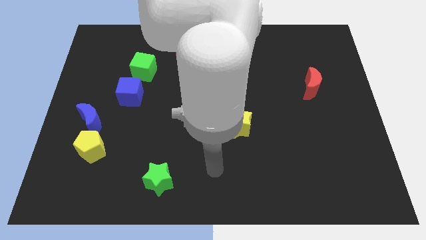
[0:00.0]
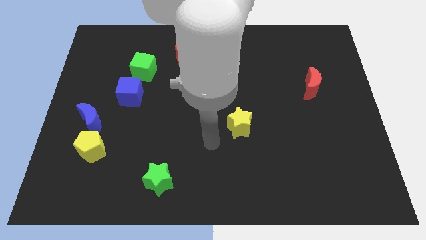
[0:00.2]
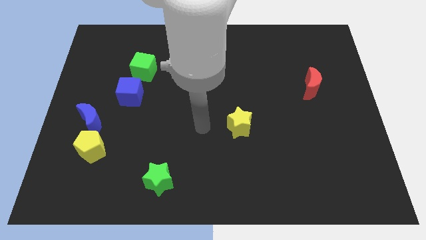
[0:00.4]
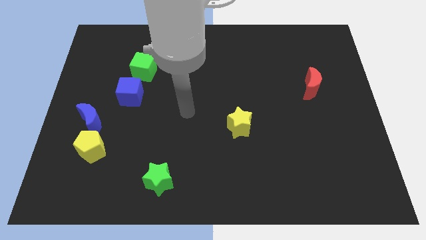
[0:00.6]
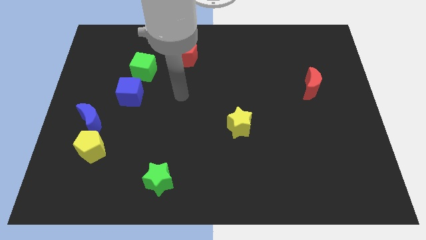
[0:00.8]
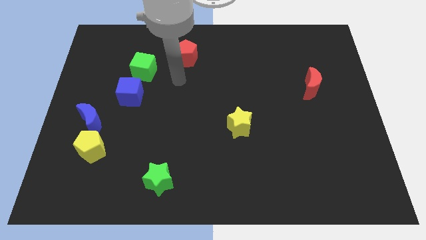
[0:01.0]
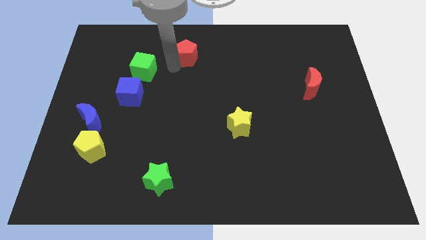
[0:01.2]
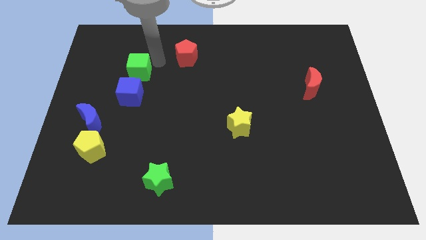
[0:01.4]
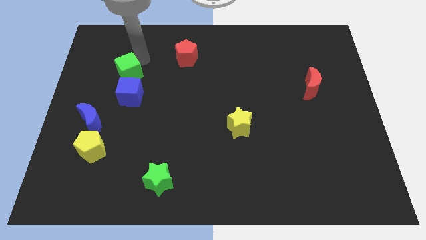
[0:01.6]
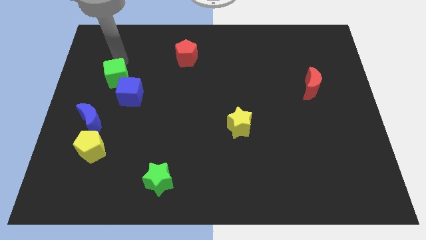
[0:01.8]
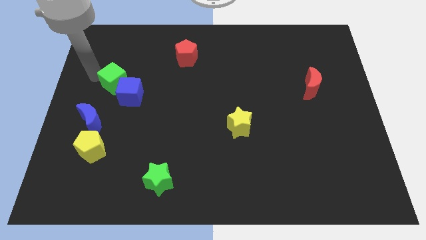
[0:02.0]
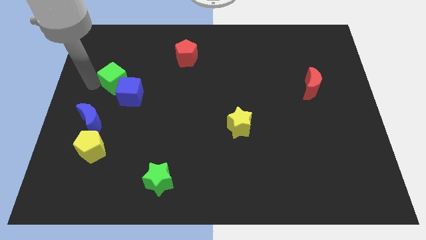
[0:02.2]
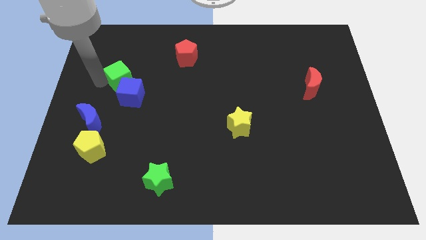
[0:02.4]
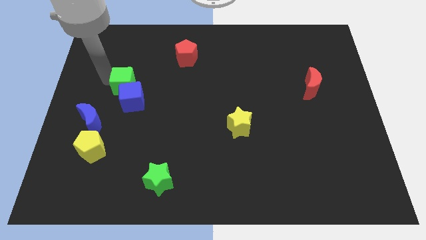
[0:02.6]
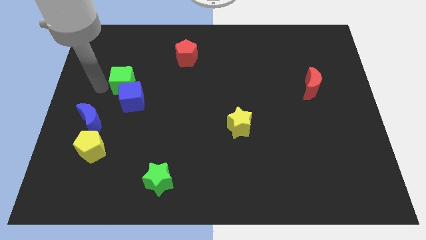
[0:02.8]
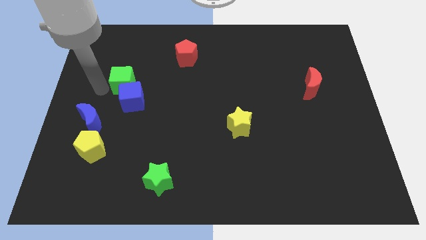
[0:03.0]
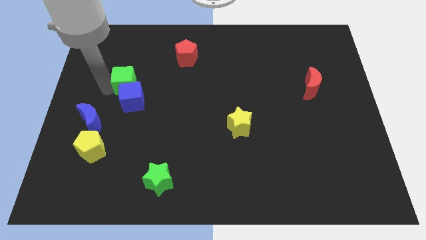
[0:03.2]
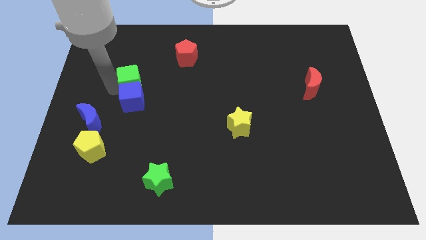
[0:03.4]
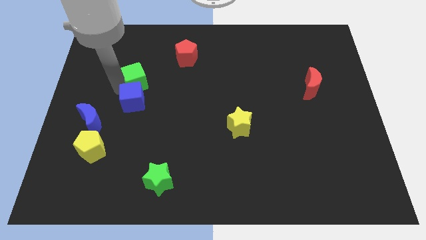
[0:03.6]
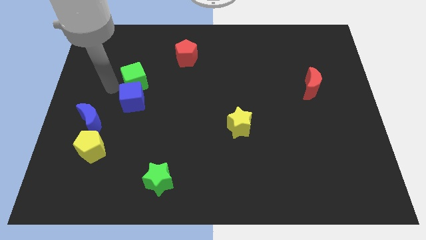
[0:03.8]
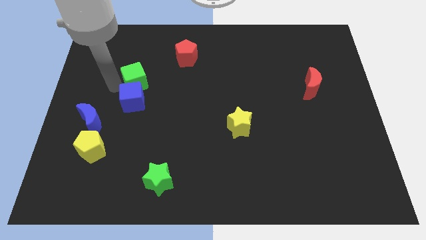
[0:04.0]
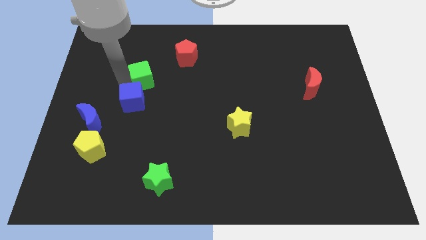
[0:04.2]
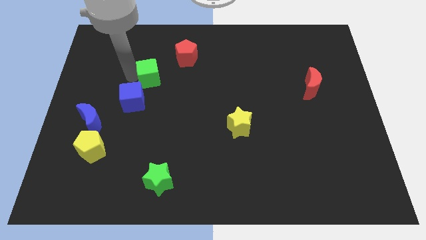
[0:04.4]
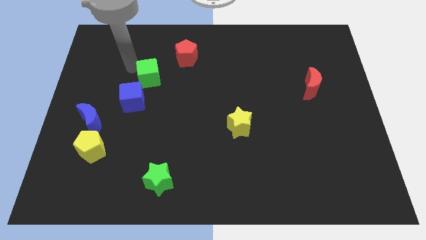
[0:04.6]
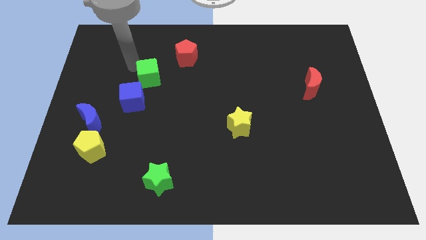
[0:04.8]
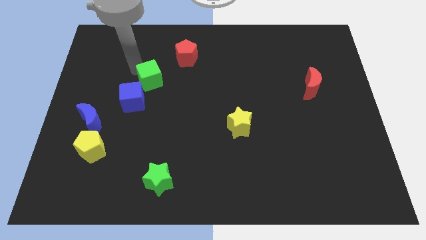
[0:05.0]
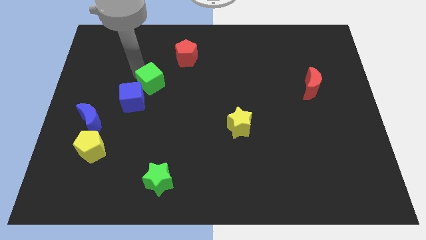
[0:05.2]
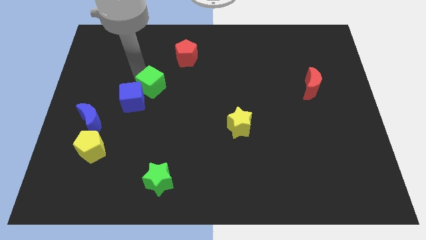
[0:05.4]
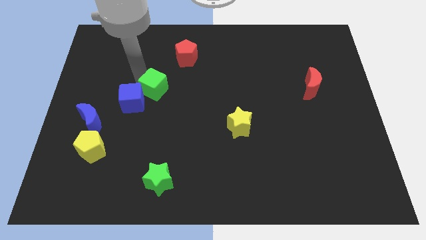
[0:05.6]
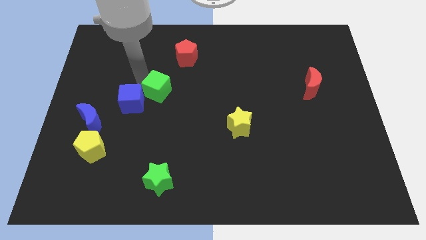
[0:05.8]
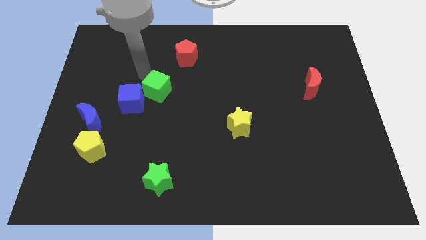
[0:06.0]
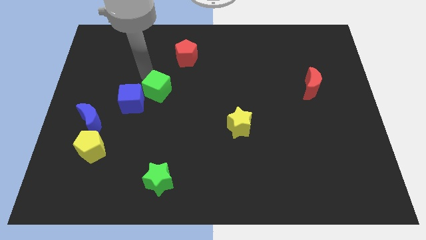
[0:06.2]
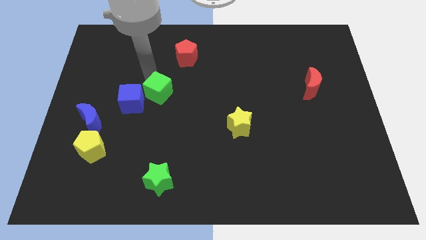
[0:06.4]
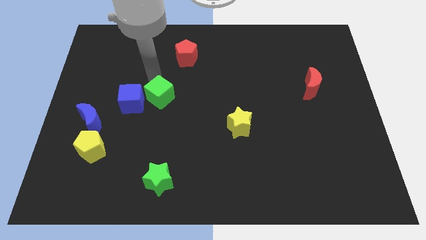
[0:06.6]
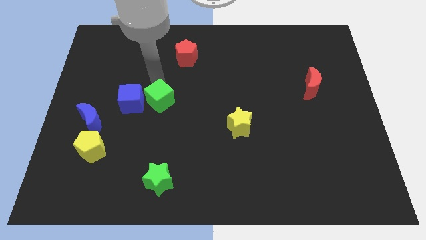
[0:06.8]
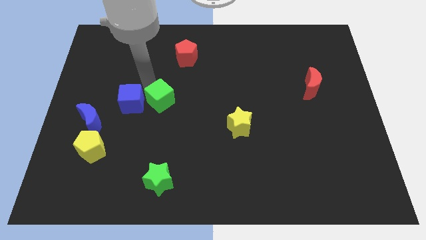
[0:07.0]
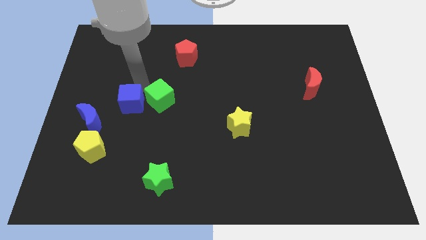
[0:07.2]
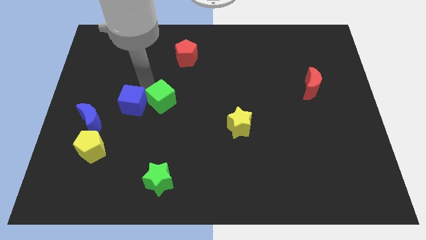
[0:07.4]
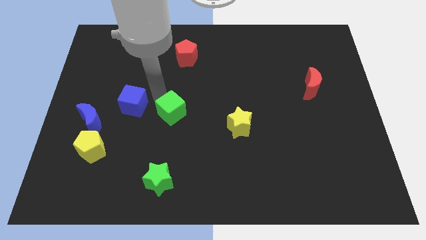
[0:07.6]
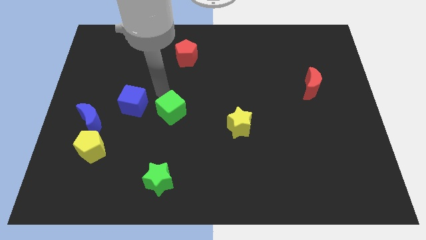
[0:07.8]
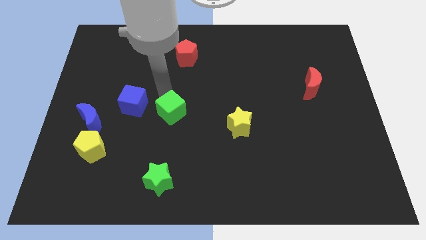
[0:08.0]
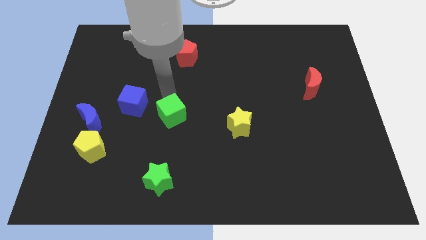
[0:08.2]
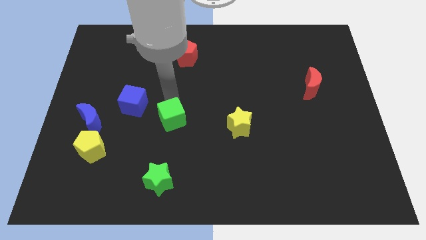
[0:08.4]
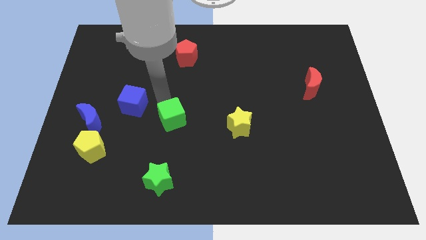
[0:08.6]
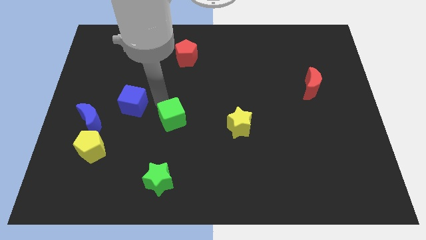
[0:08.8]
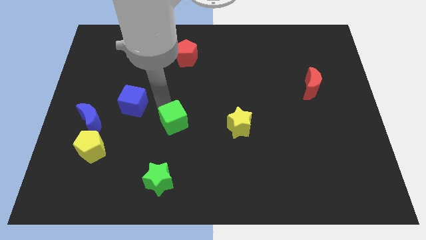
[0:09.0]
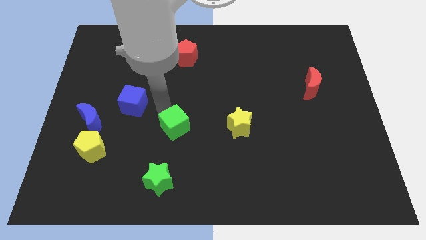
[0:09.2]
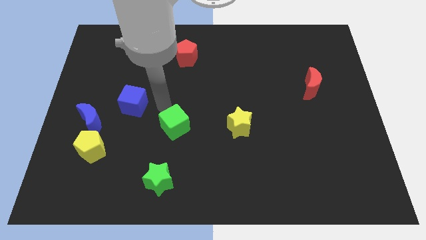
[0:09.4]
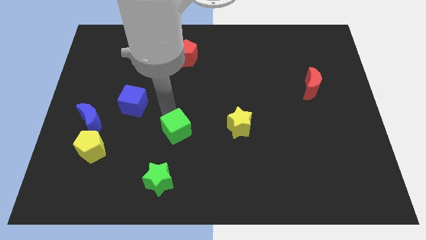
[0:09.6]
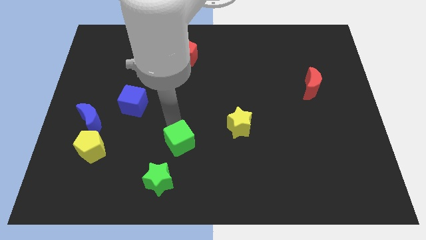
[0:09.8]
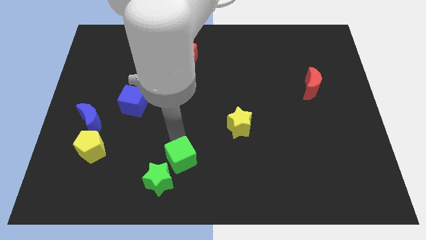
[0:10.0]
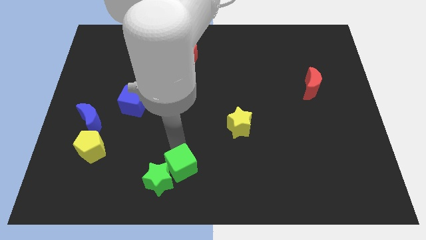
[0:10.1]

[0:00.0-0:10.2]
move the green cube to the bottom

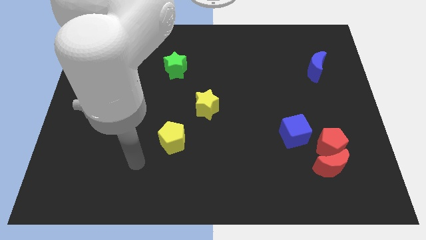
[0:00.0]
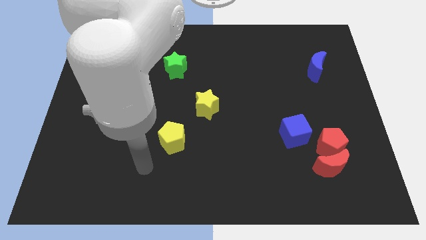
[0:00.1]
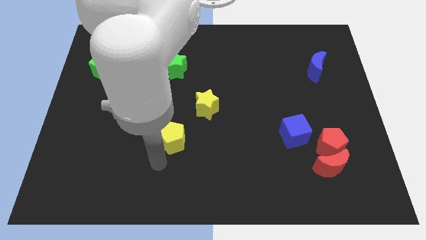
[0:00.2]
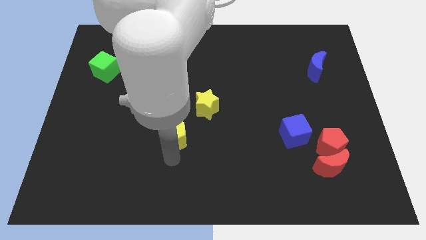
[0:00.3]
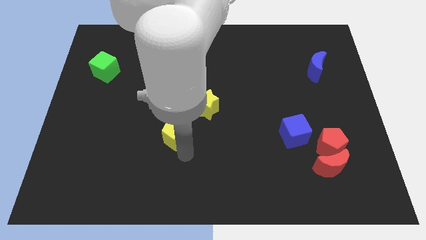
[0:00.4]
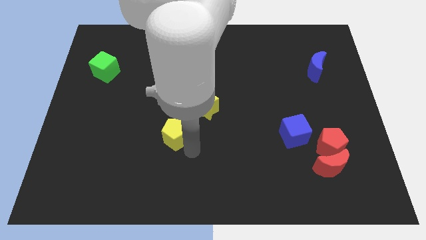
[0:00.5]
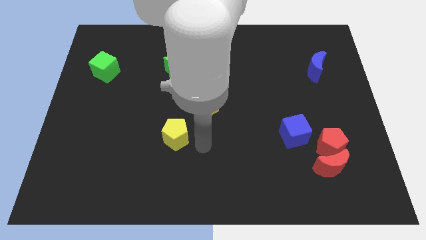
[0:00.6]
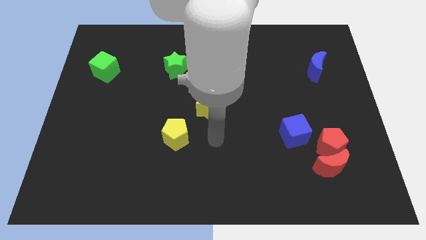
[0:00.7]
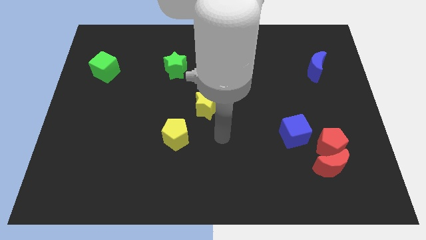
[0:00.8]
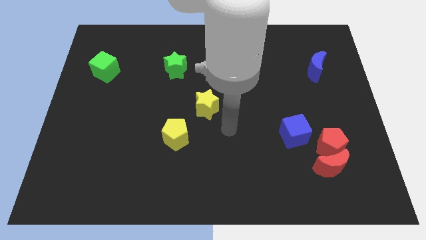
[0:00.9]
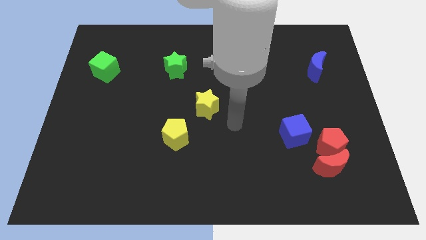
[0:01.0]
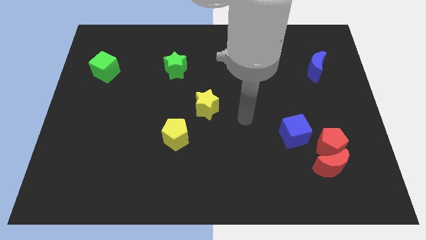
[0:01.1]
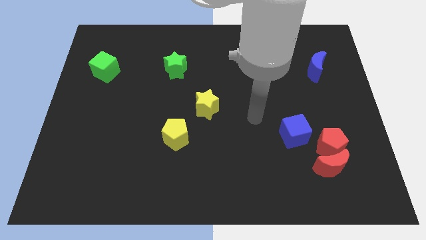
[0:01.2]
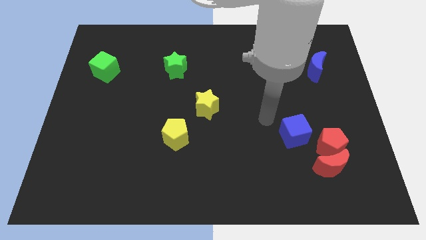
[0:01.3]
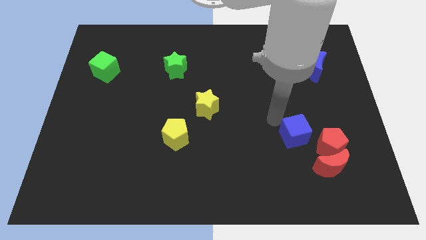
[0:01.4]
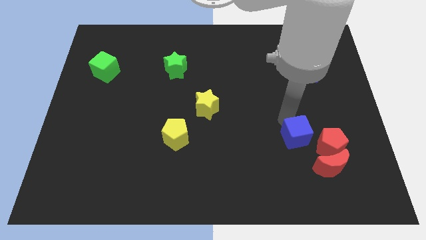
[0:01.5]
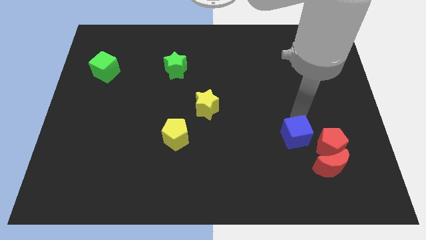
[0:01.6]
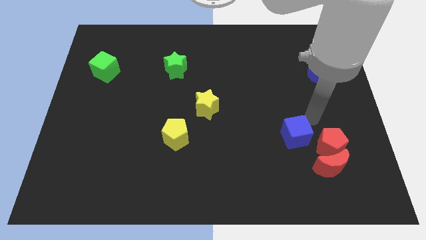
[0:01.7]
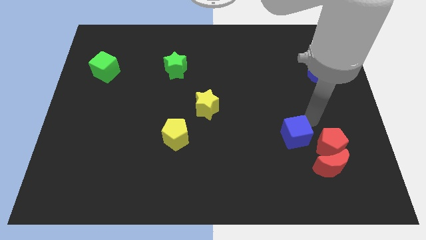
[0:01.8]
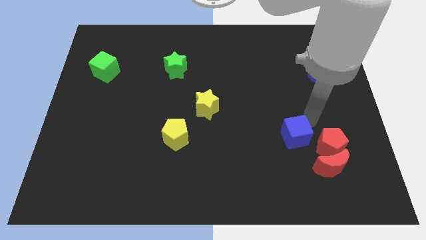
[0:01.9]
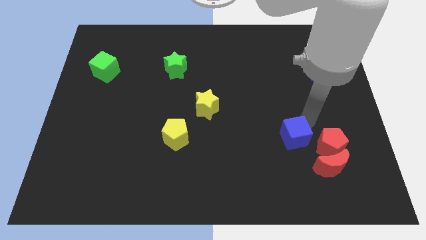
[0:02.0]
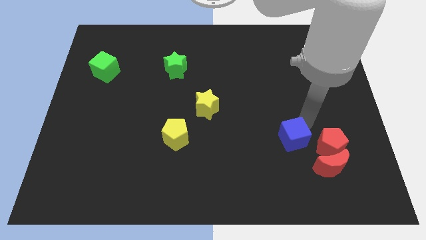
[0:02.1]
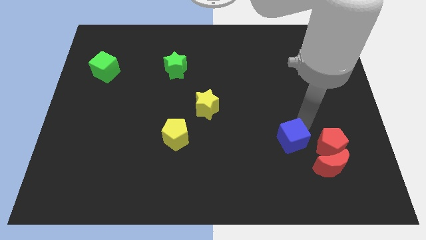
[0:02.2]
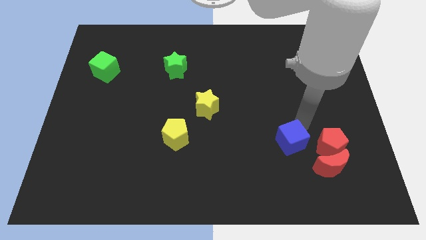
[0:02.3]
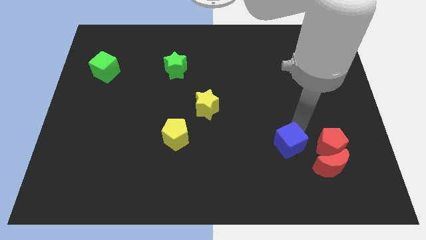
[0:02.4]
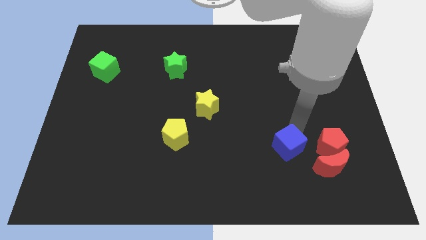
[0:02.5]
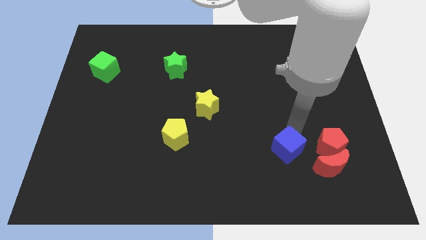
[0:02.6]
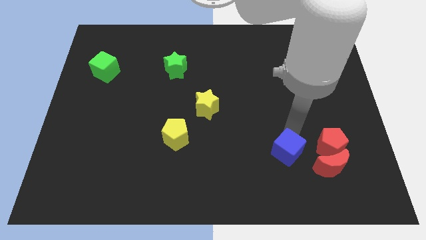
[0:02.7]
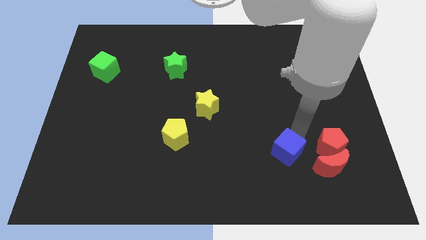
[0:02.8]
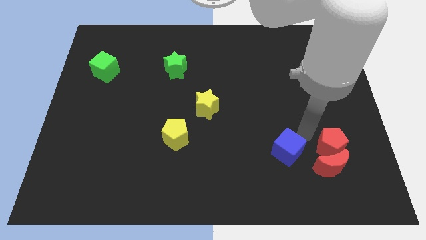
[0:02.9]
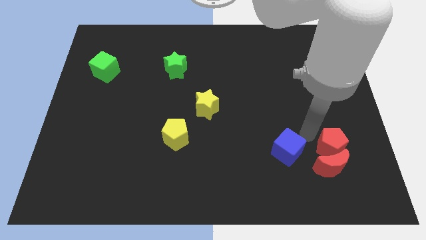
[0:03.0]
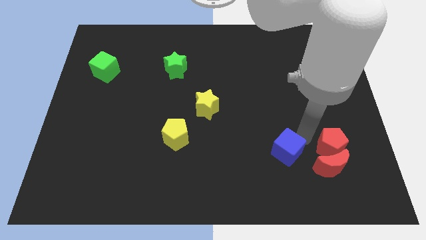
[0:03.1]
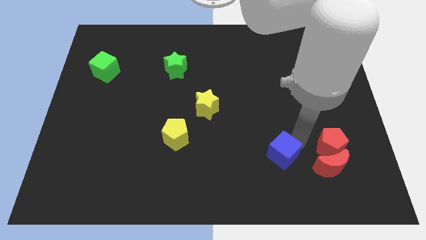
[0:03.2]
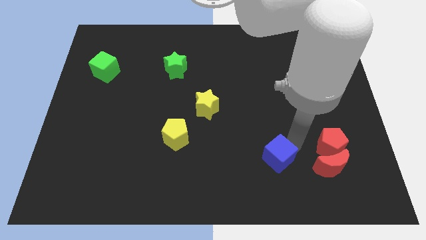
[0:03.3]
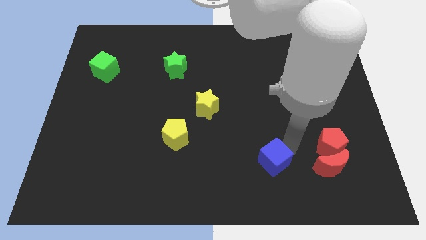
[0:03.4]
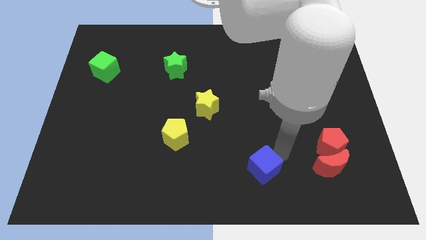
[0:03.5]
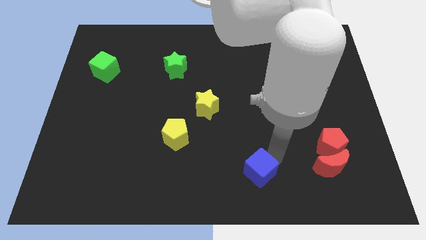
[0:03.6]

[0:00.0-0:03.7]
push the blue cube to the bottom side
